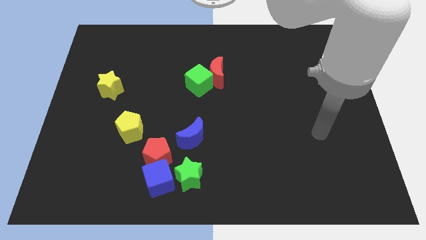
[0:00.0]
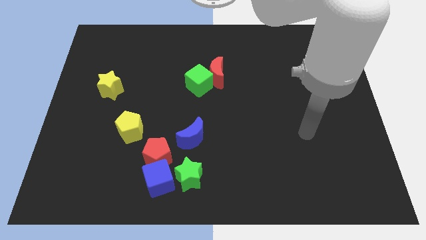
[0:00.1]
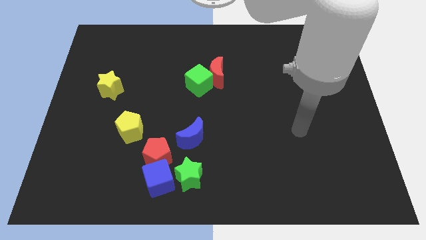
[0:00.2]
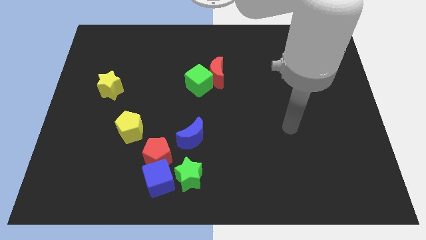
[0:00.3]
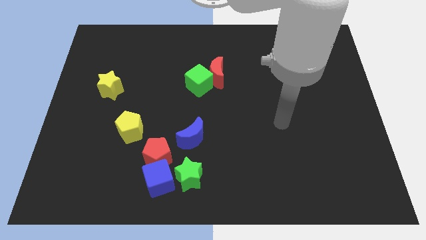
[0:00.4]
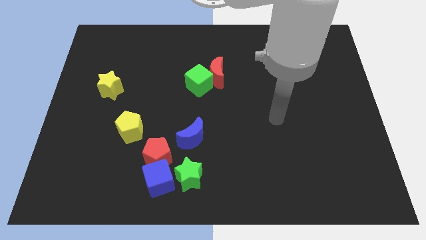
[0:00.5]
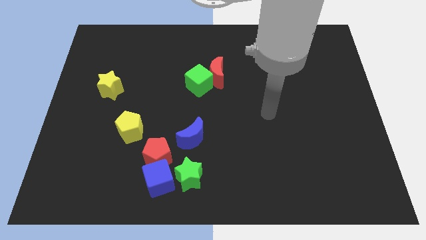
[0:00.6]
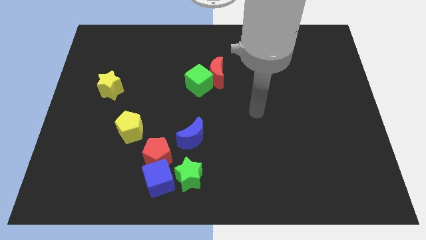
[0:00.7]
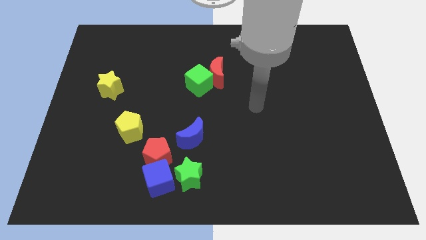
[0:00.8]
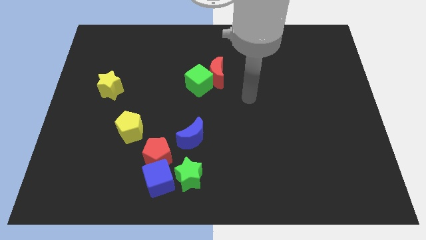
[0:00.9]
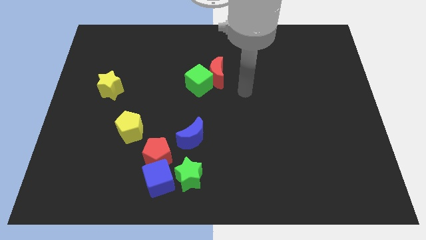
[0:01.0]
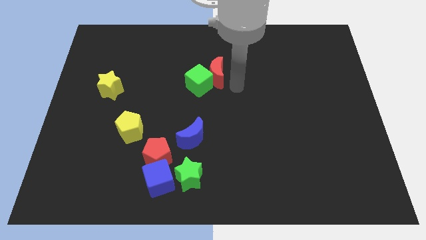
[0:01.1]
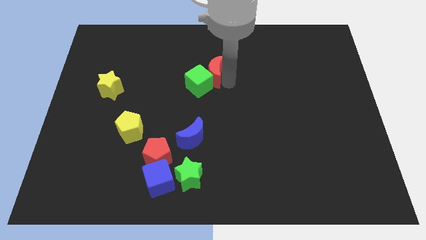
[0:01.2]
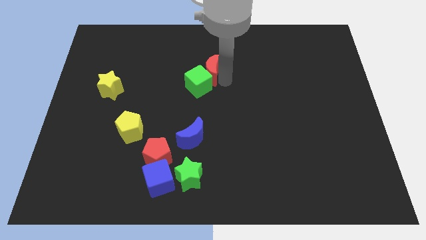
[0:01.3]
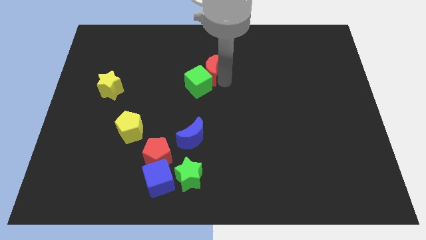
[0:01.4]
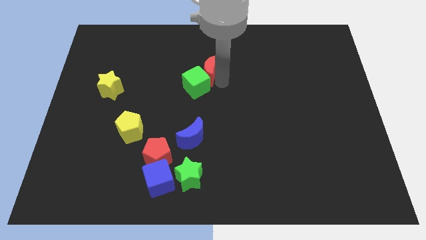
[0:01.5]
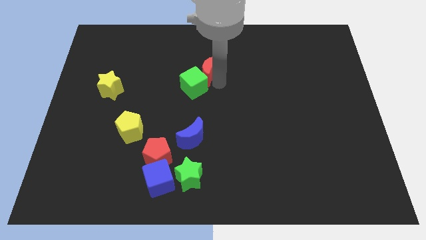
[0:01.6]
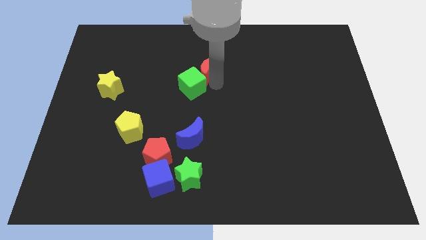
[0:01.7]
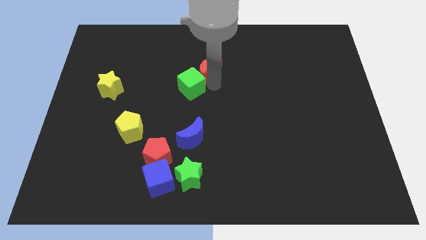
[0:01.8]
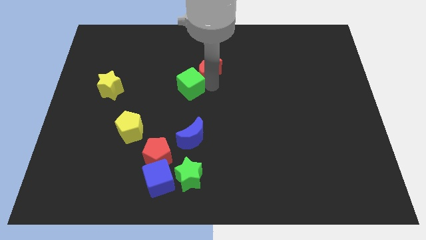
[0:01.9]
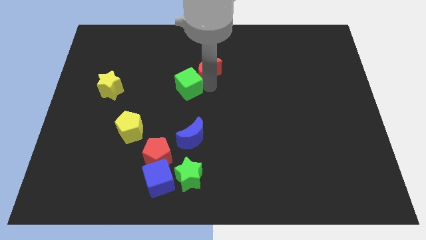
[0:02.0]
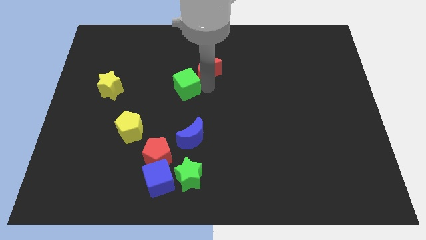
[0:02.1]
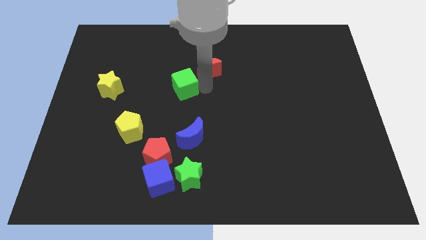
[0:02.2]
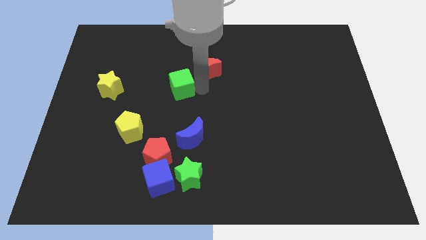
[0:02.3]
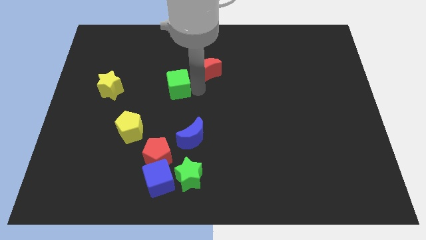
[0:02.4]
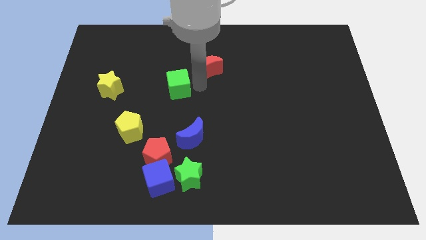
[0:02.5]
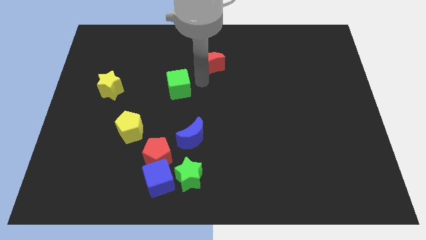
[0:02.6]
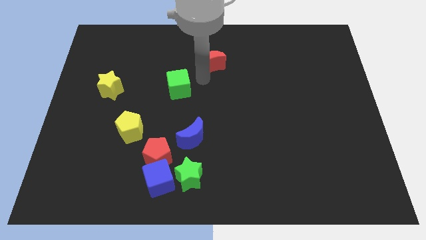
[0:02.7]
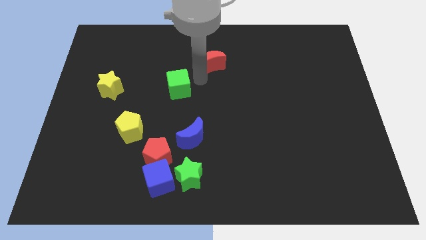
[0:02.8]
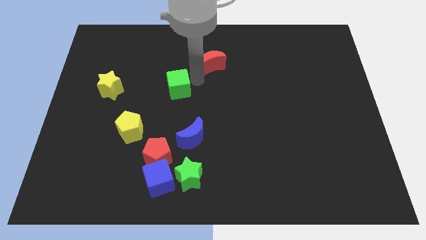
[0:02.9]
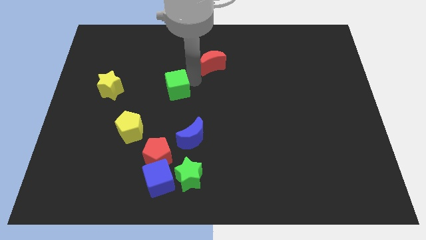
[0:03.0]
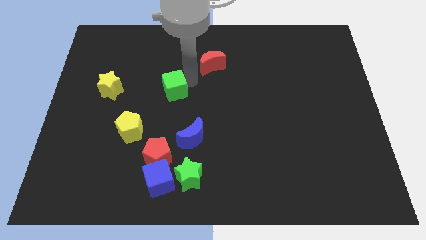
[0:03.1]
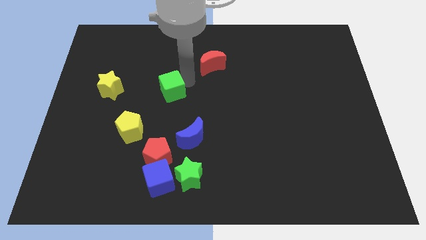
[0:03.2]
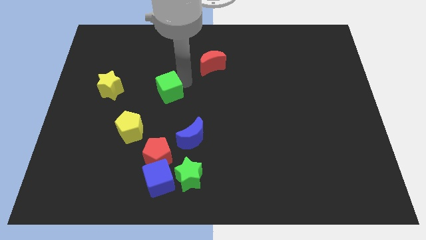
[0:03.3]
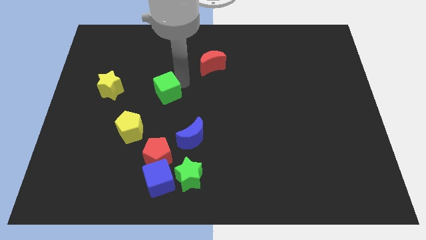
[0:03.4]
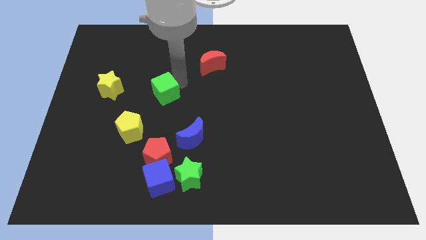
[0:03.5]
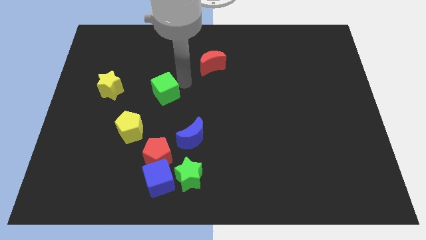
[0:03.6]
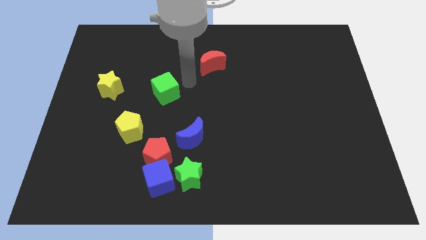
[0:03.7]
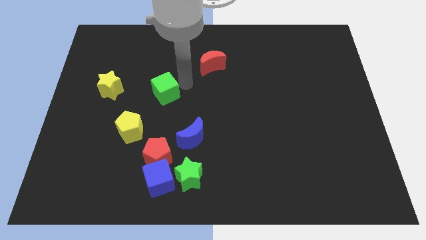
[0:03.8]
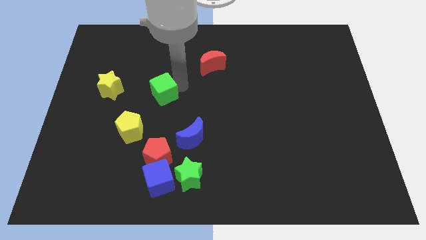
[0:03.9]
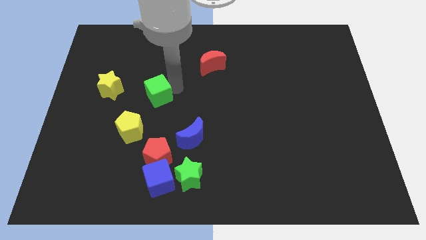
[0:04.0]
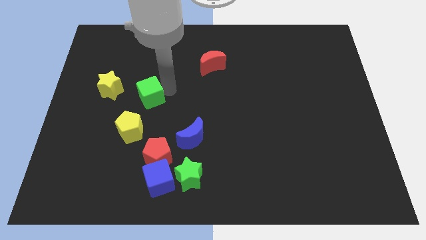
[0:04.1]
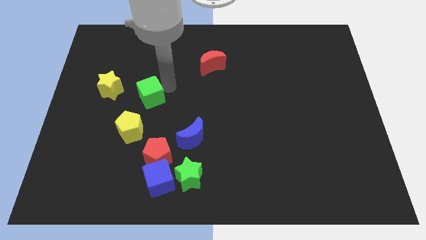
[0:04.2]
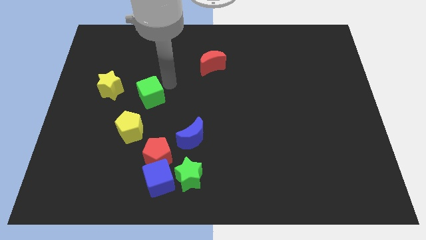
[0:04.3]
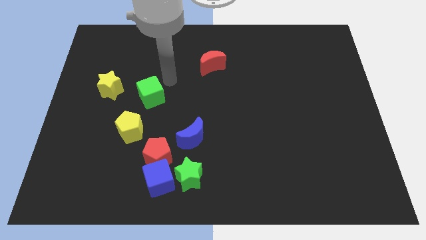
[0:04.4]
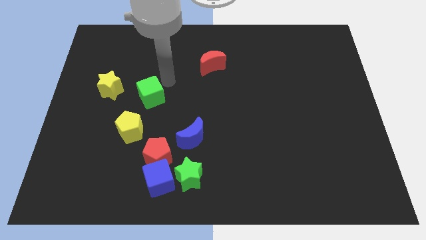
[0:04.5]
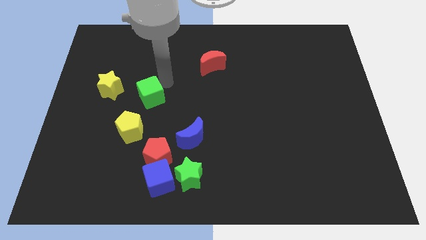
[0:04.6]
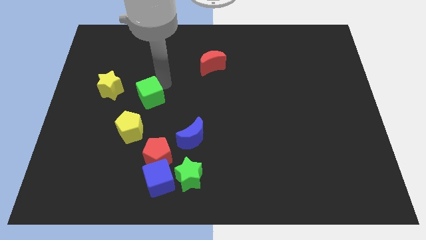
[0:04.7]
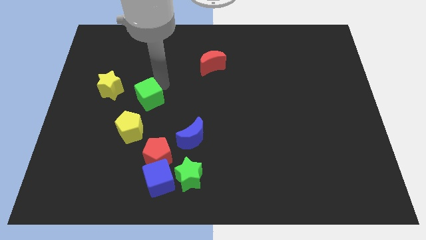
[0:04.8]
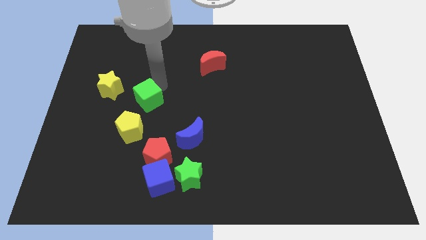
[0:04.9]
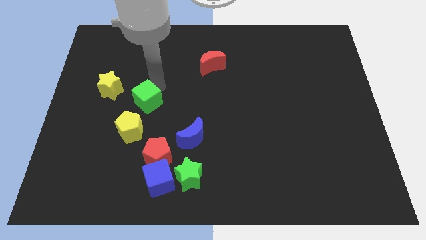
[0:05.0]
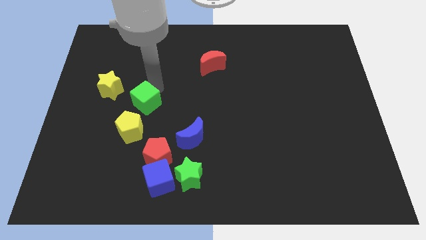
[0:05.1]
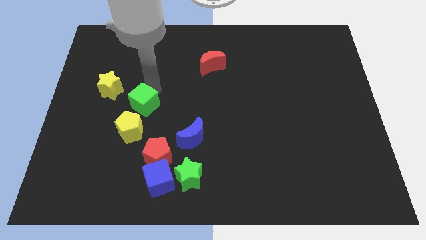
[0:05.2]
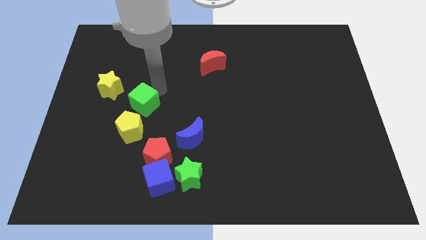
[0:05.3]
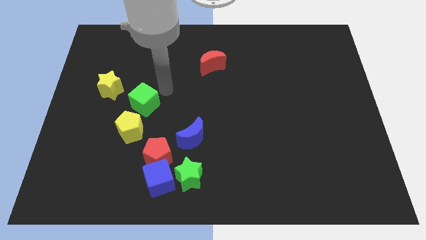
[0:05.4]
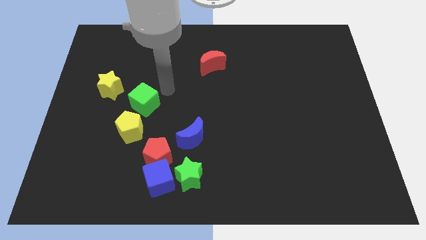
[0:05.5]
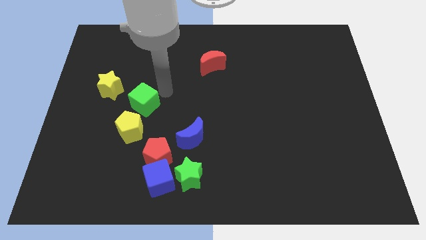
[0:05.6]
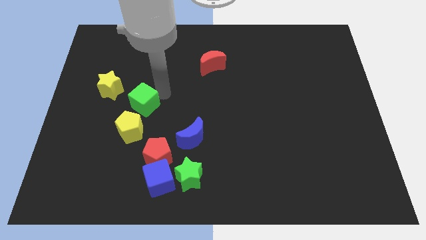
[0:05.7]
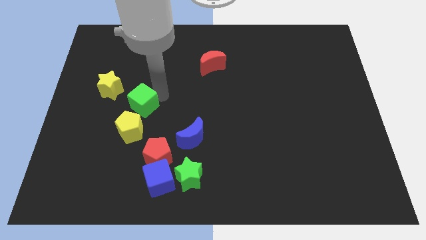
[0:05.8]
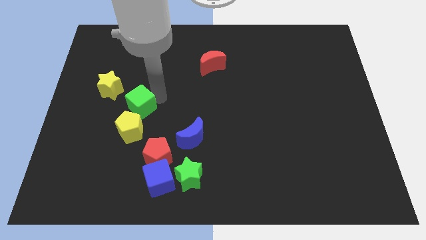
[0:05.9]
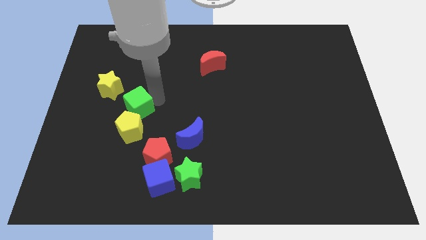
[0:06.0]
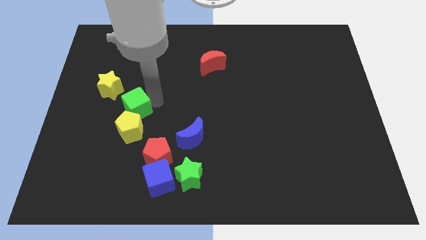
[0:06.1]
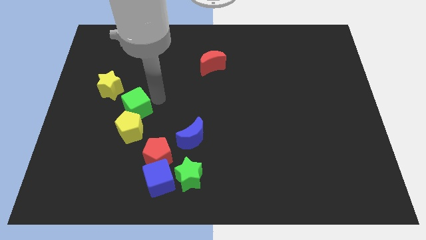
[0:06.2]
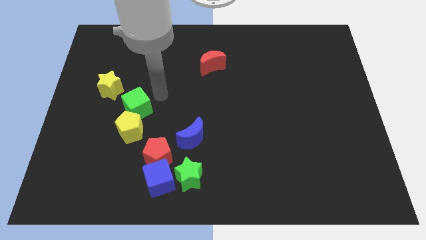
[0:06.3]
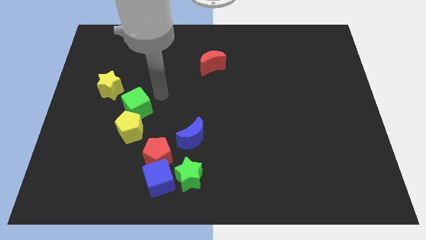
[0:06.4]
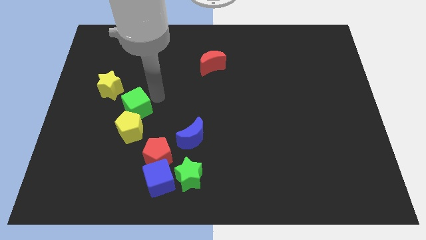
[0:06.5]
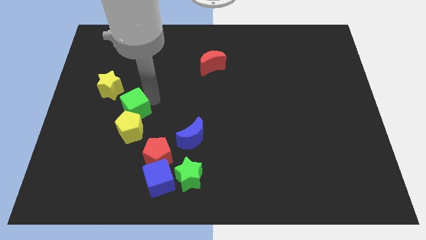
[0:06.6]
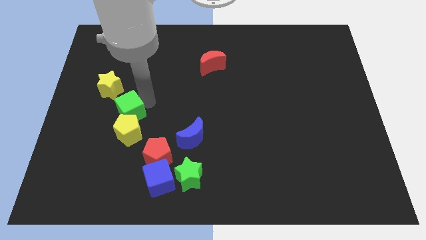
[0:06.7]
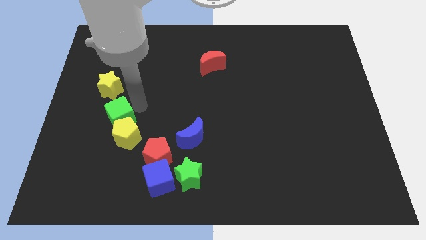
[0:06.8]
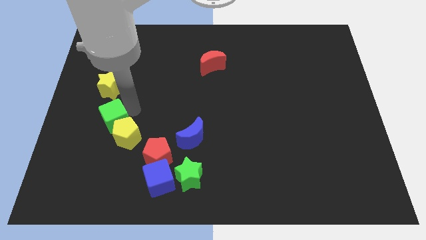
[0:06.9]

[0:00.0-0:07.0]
slide the green cube diagonally downwards and left

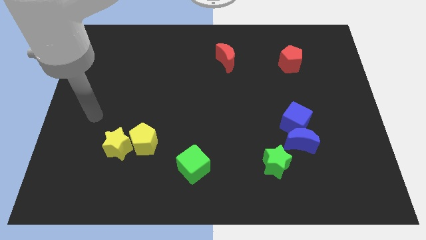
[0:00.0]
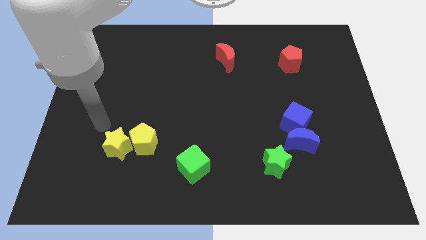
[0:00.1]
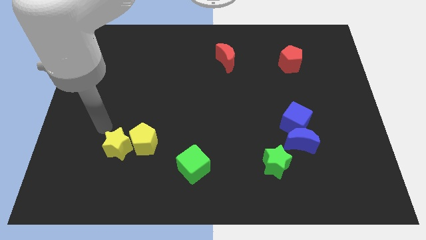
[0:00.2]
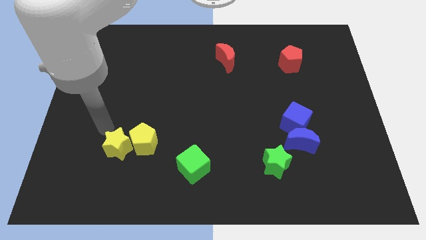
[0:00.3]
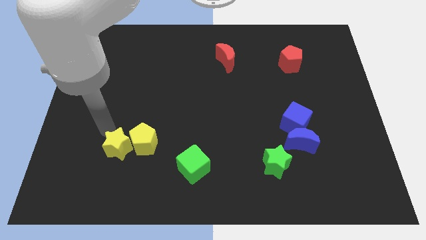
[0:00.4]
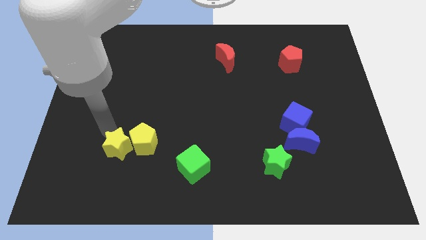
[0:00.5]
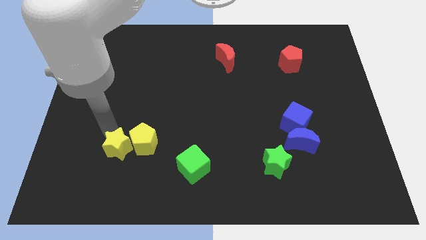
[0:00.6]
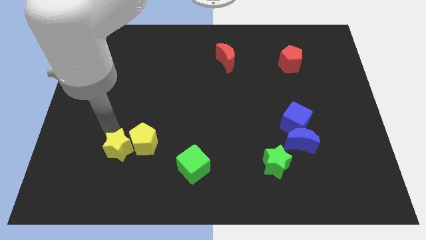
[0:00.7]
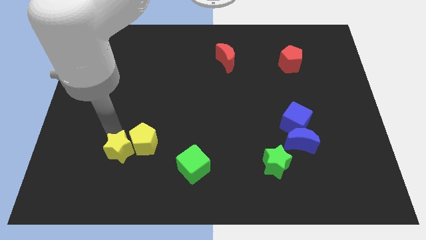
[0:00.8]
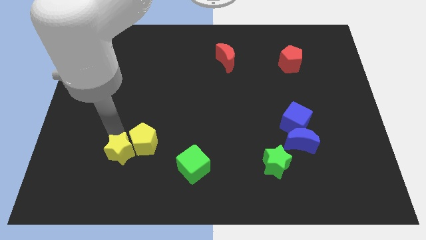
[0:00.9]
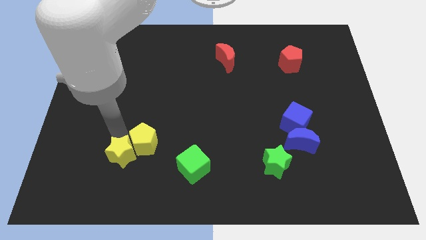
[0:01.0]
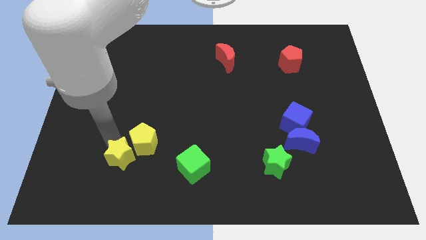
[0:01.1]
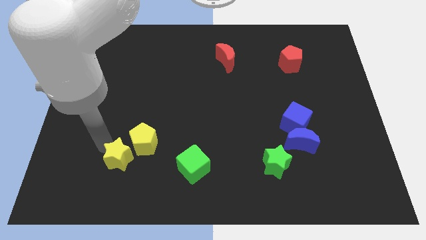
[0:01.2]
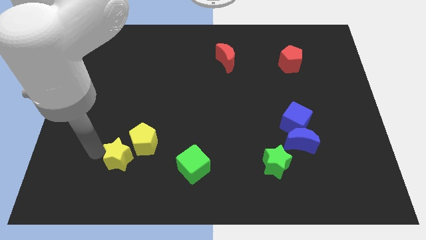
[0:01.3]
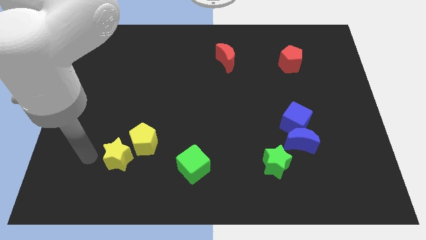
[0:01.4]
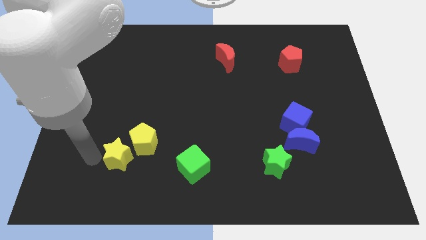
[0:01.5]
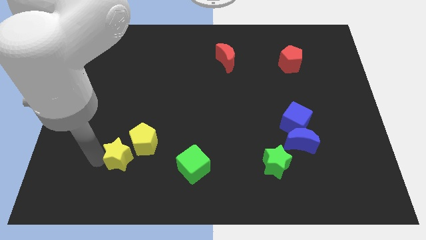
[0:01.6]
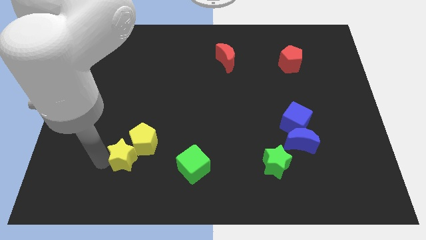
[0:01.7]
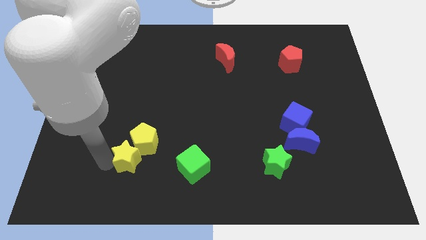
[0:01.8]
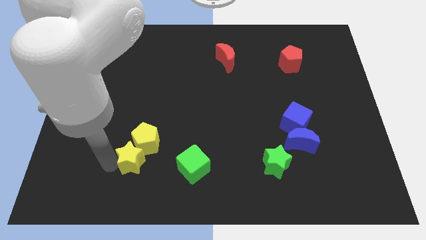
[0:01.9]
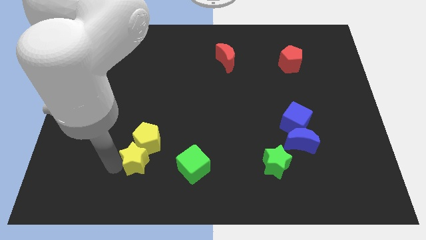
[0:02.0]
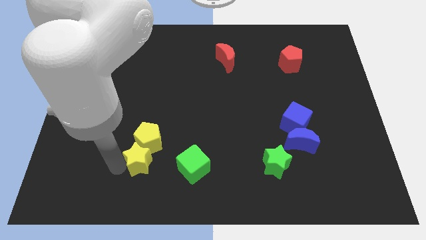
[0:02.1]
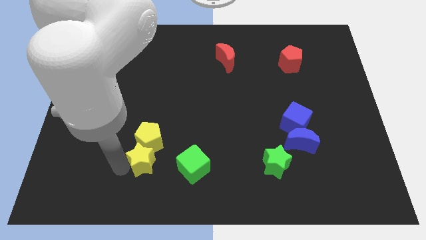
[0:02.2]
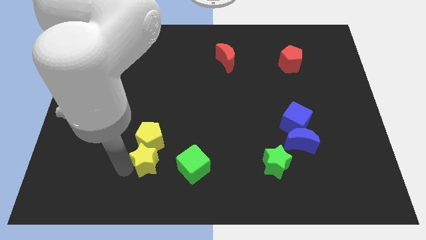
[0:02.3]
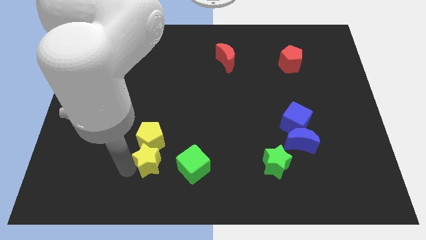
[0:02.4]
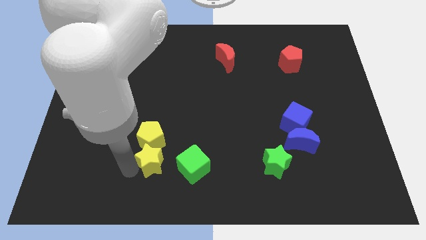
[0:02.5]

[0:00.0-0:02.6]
slide the yellow star slightly to the right
